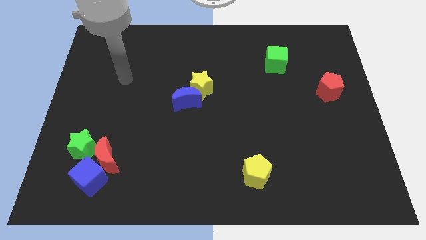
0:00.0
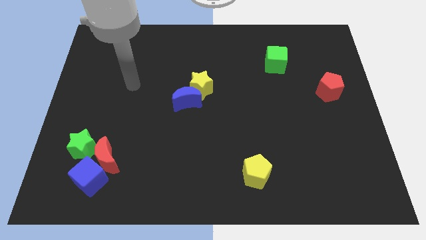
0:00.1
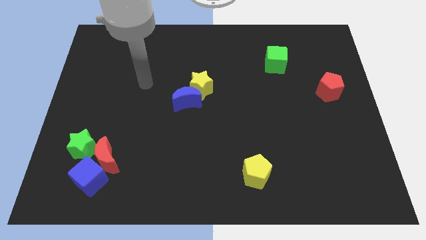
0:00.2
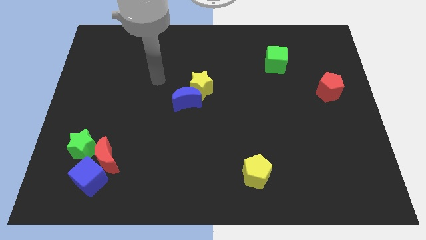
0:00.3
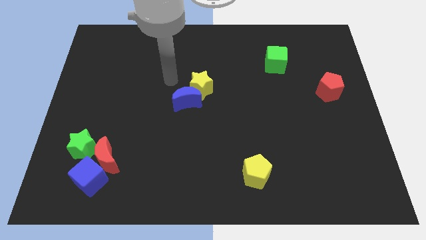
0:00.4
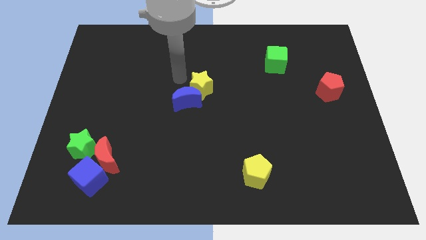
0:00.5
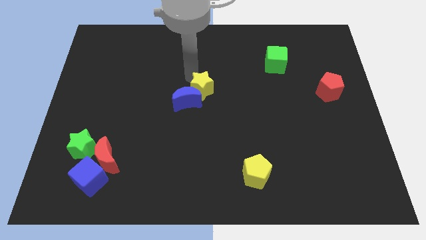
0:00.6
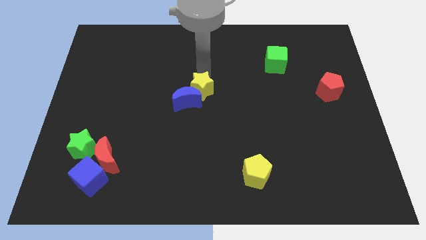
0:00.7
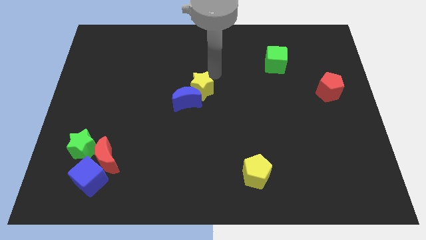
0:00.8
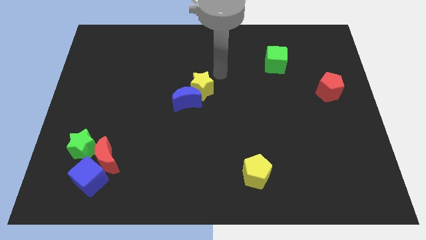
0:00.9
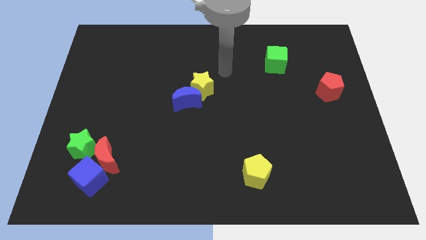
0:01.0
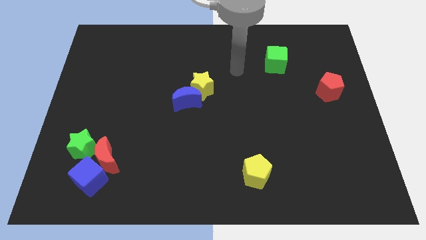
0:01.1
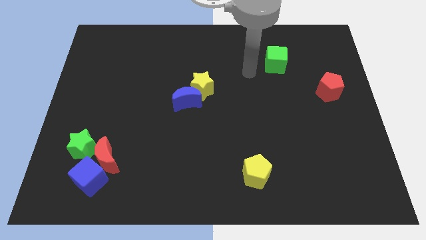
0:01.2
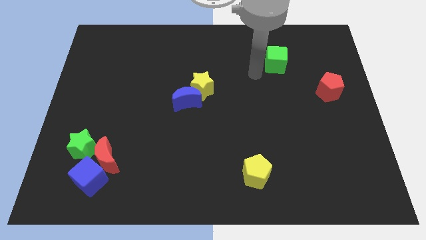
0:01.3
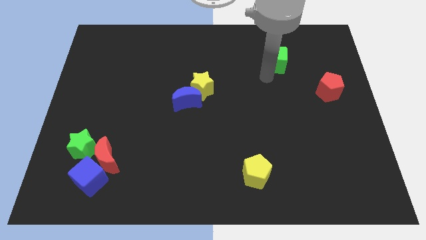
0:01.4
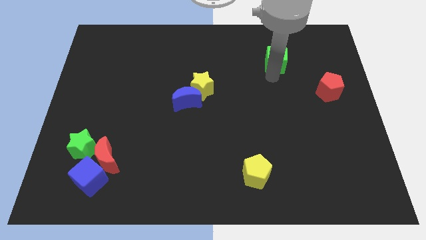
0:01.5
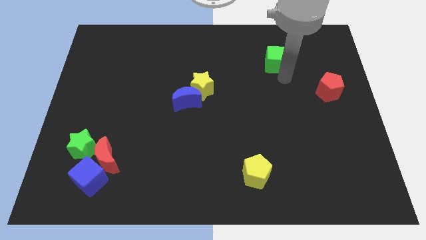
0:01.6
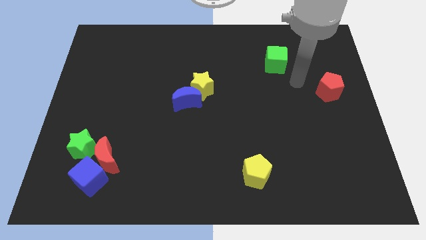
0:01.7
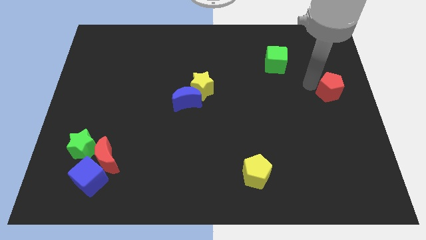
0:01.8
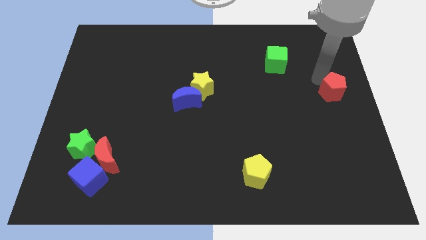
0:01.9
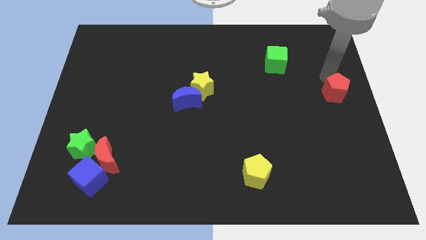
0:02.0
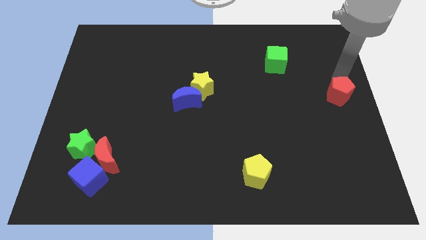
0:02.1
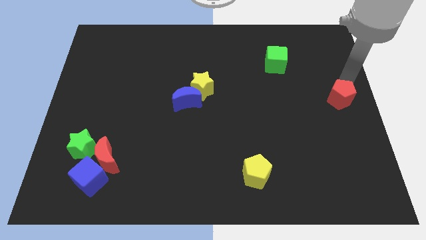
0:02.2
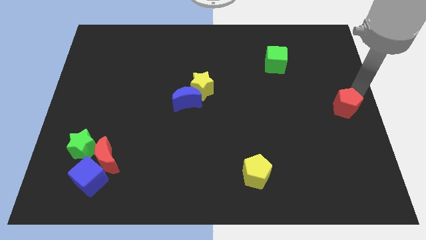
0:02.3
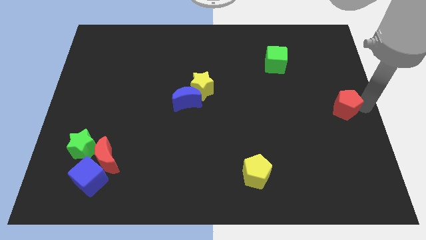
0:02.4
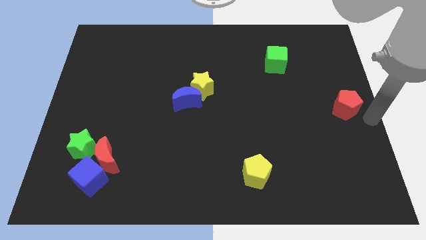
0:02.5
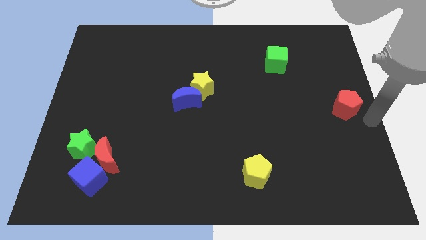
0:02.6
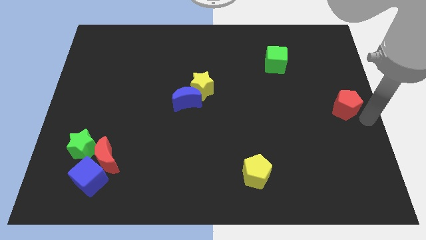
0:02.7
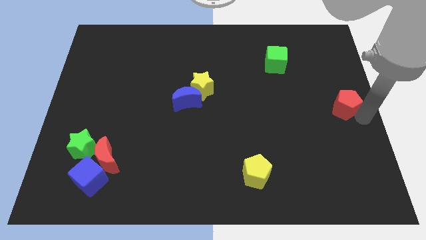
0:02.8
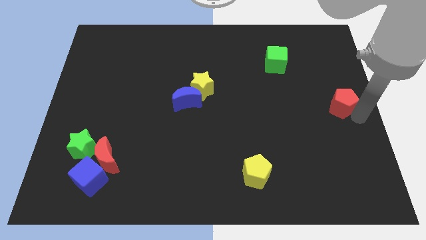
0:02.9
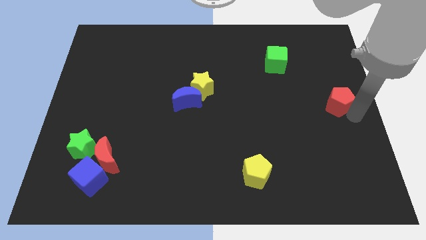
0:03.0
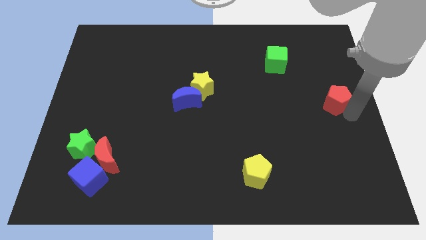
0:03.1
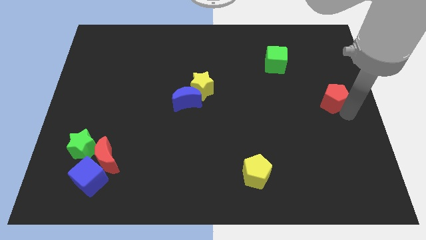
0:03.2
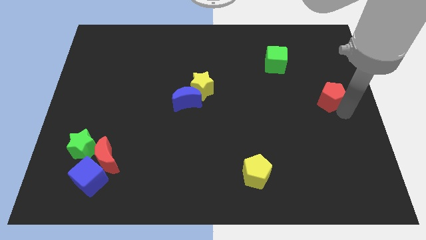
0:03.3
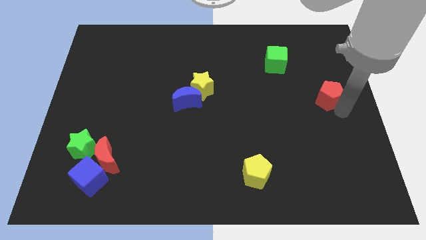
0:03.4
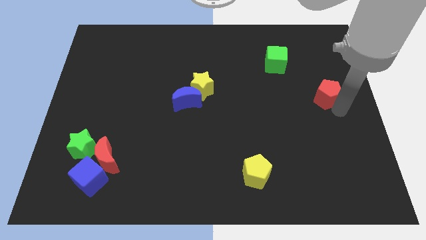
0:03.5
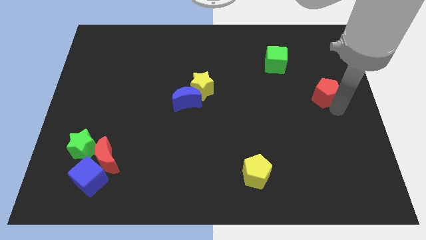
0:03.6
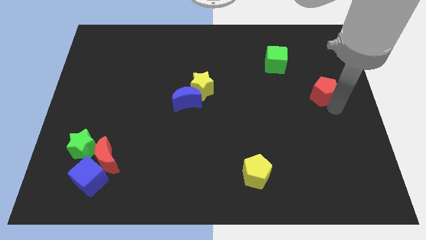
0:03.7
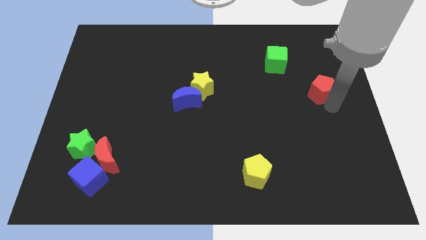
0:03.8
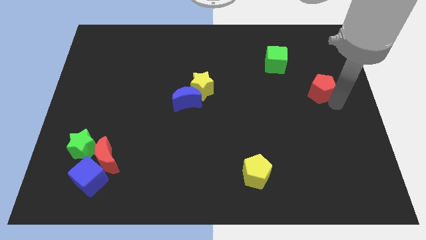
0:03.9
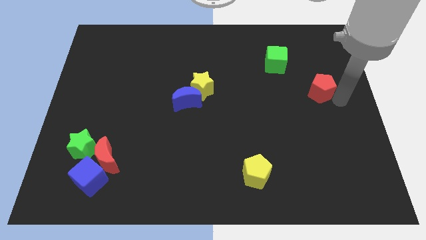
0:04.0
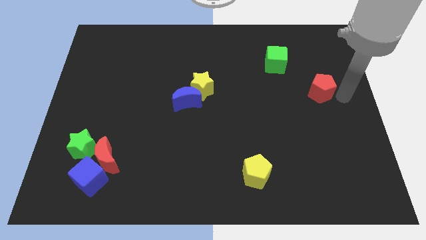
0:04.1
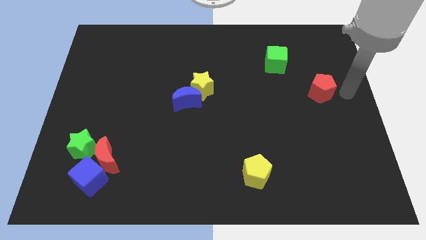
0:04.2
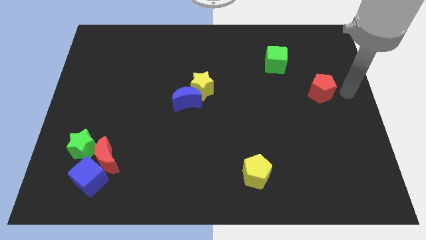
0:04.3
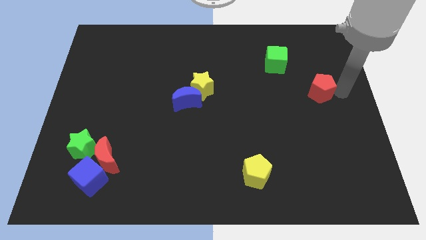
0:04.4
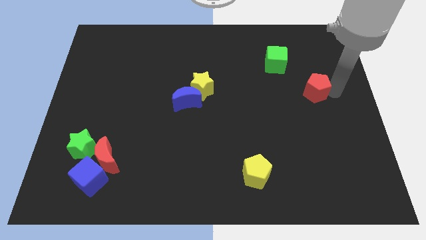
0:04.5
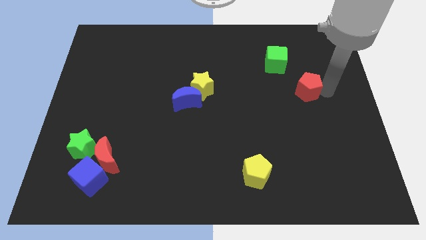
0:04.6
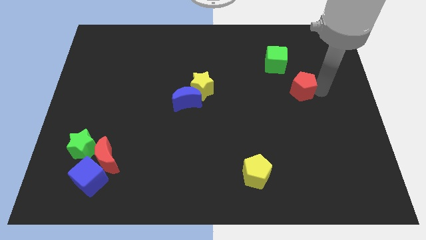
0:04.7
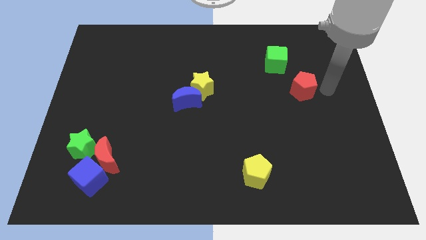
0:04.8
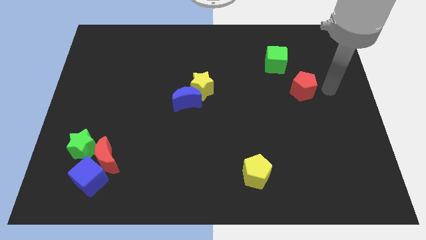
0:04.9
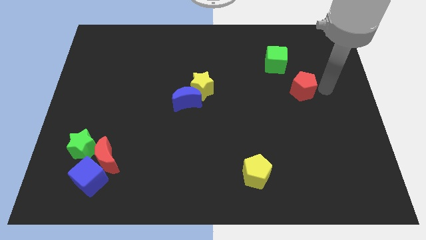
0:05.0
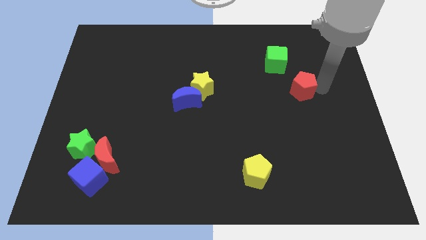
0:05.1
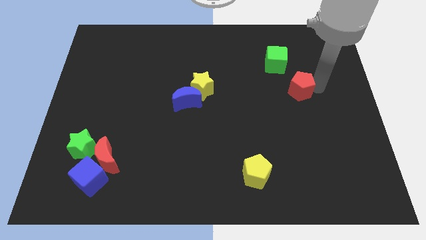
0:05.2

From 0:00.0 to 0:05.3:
slide the red pentagon to the left a little

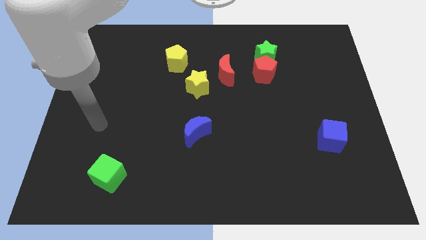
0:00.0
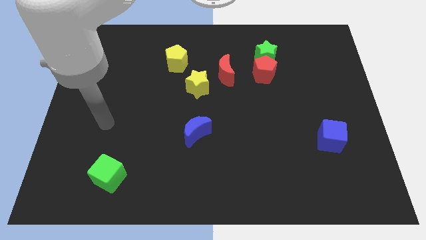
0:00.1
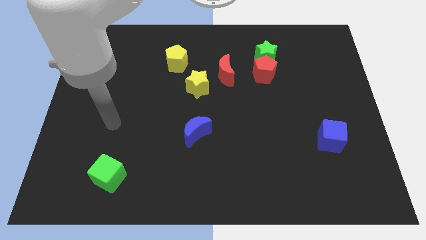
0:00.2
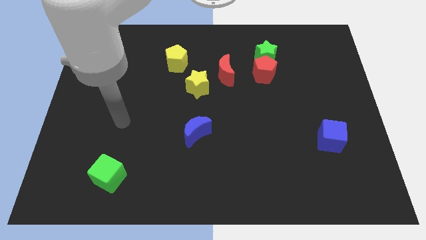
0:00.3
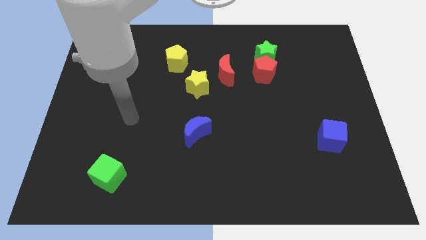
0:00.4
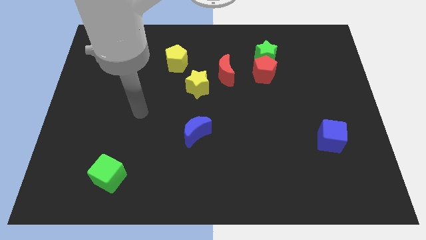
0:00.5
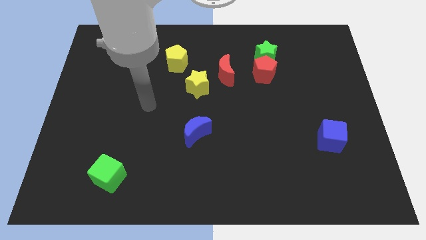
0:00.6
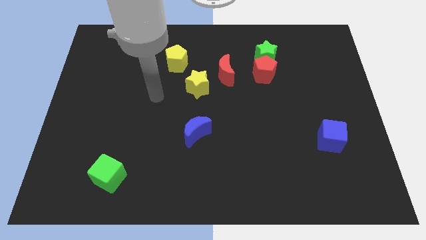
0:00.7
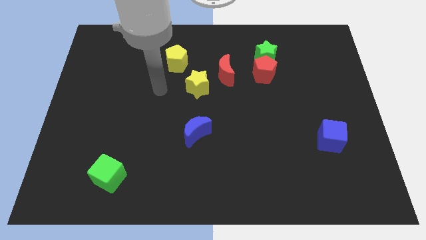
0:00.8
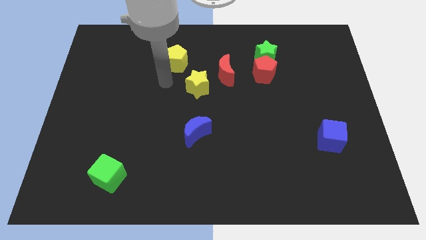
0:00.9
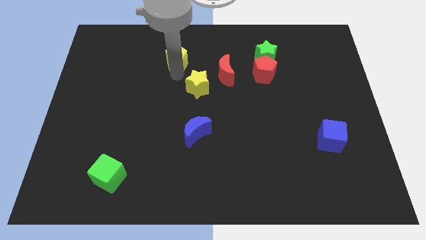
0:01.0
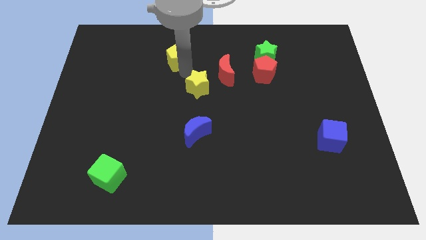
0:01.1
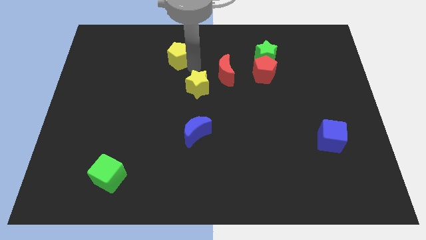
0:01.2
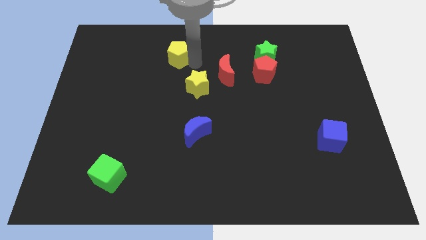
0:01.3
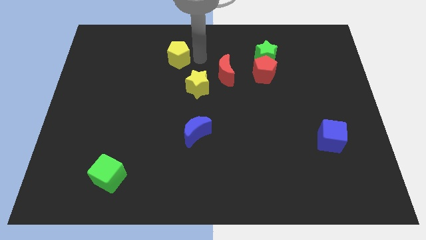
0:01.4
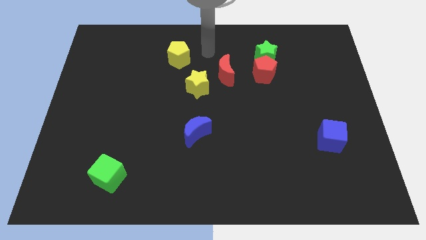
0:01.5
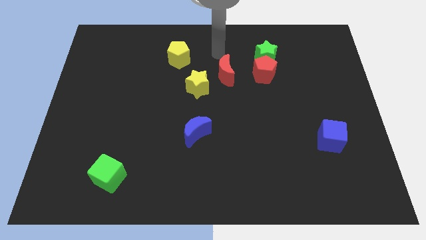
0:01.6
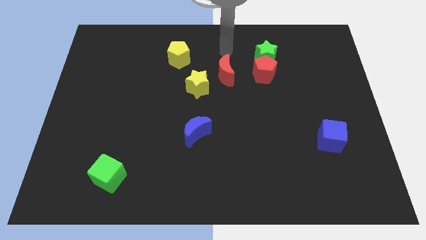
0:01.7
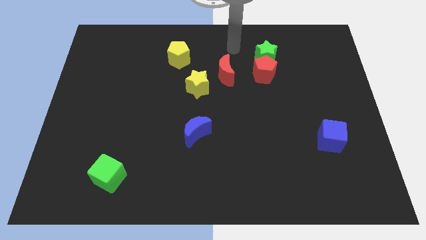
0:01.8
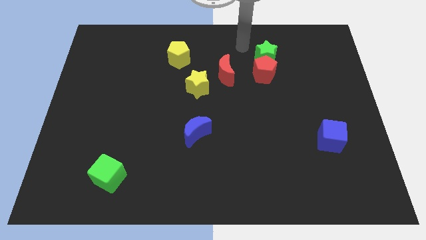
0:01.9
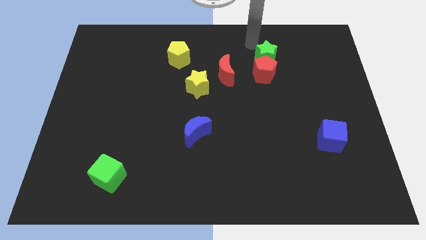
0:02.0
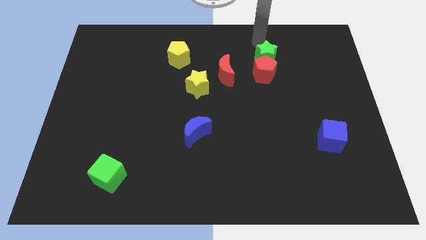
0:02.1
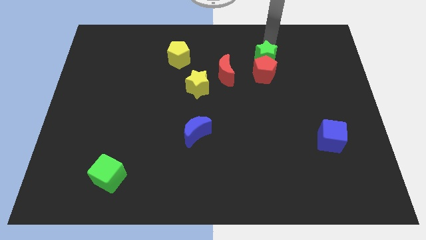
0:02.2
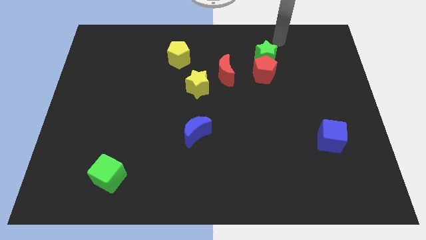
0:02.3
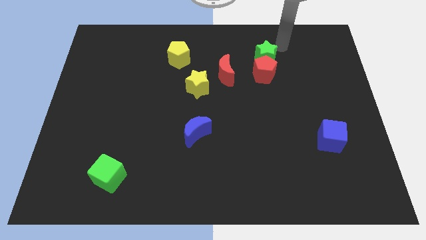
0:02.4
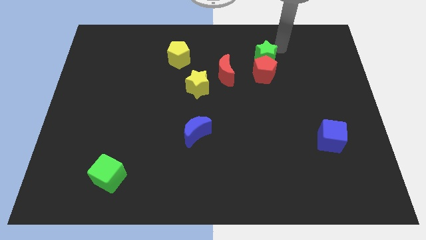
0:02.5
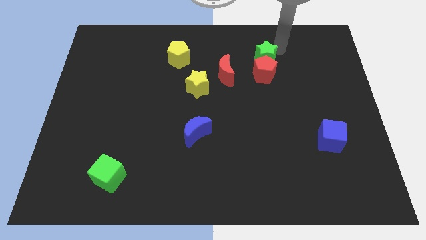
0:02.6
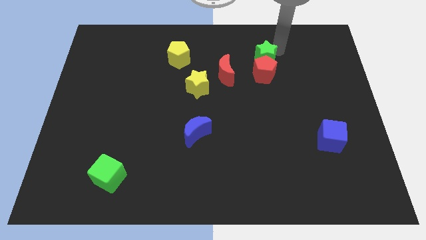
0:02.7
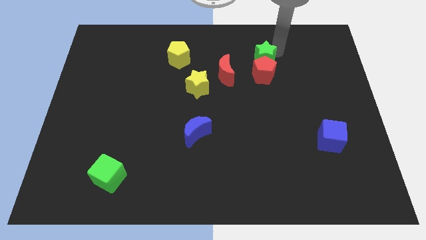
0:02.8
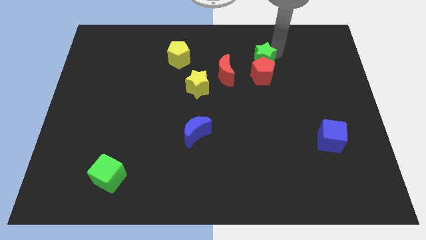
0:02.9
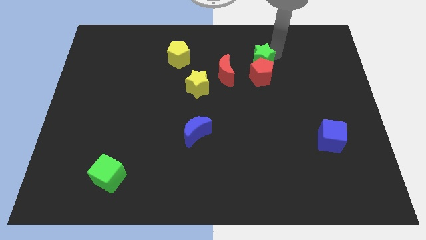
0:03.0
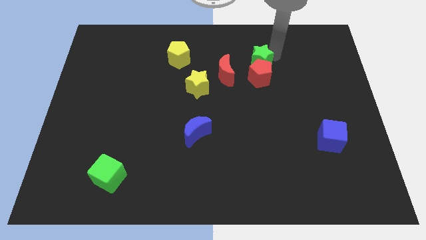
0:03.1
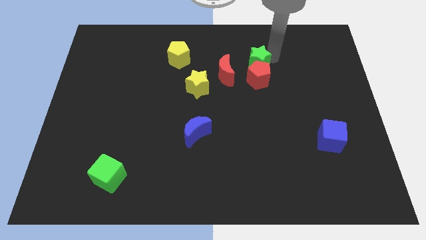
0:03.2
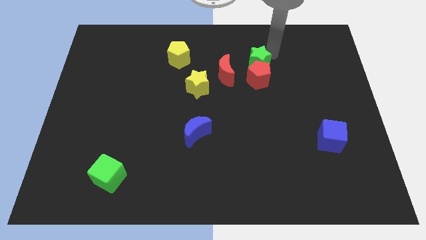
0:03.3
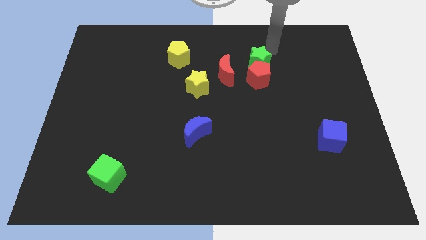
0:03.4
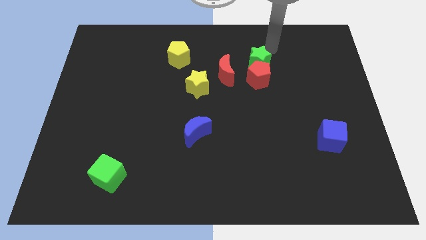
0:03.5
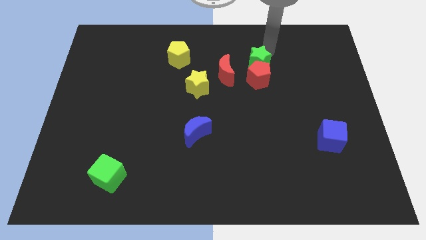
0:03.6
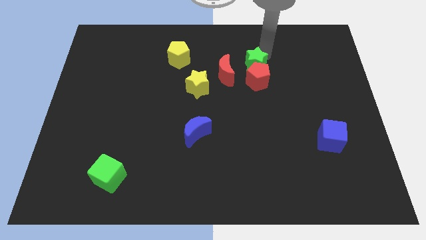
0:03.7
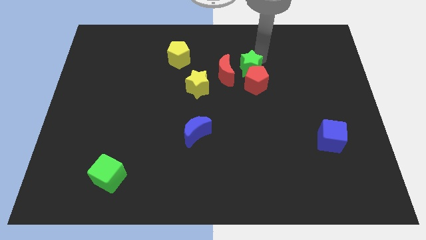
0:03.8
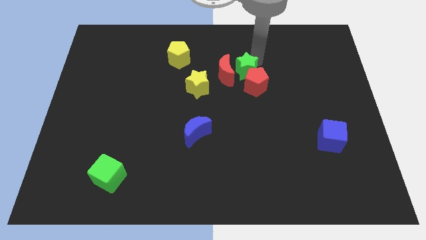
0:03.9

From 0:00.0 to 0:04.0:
slightly push the green star down and left diagonally
